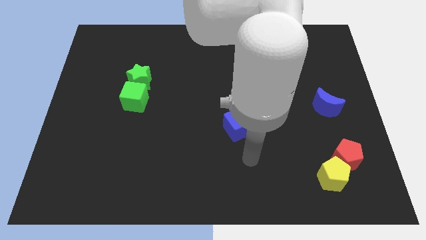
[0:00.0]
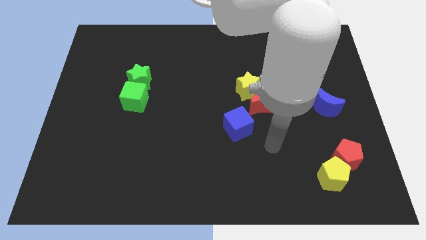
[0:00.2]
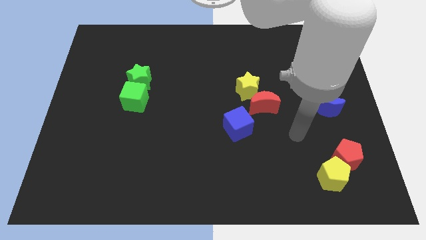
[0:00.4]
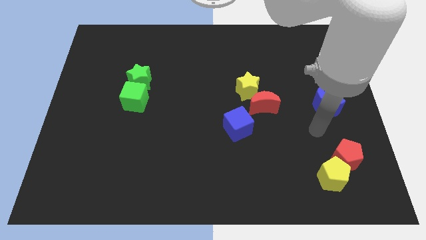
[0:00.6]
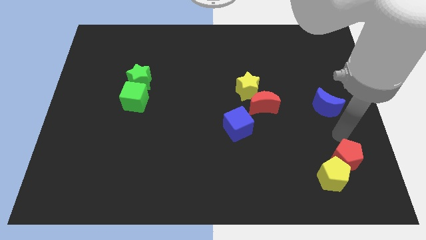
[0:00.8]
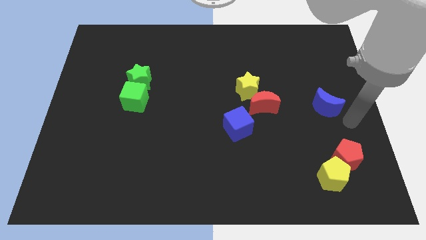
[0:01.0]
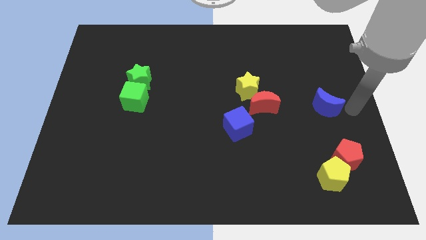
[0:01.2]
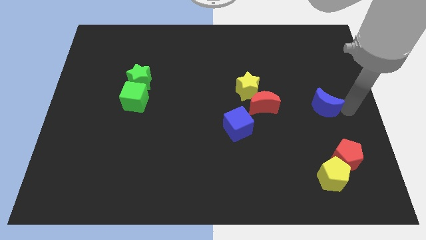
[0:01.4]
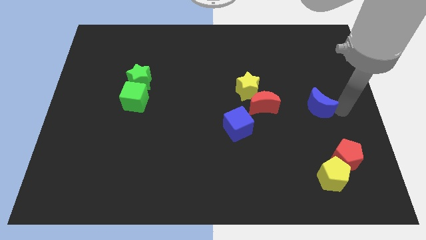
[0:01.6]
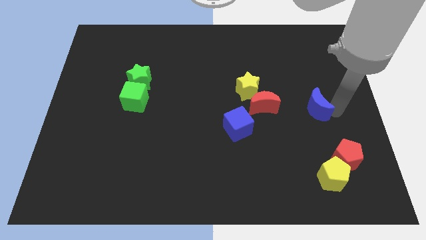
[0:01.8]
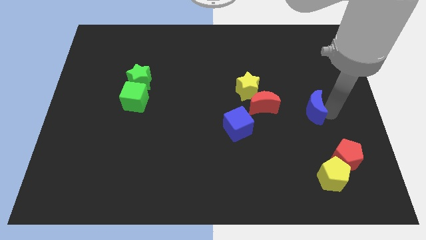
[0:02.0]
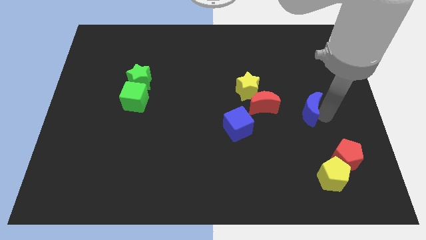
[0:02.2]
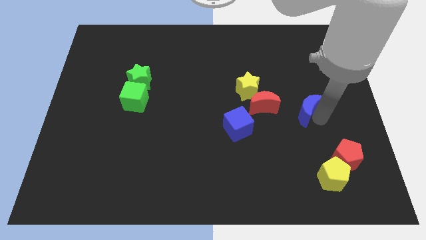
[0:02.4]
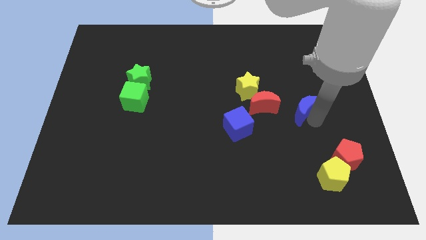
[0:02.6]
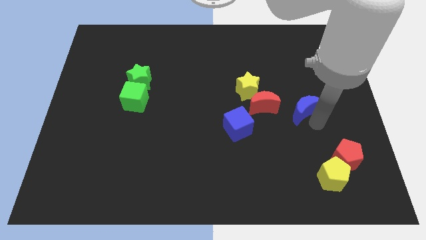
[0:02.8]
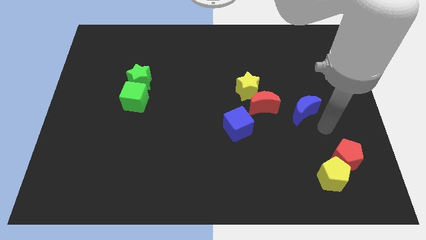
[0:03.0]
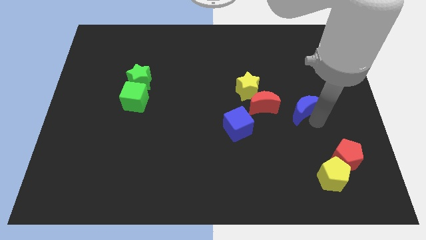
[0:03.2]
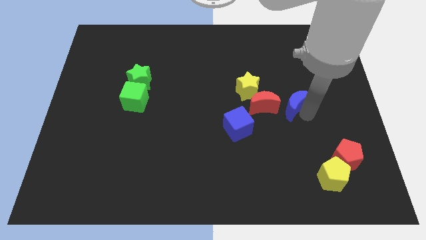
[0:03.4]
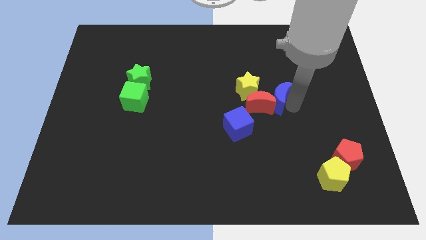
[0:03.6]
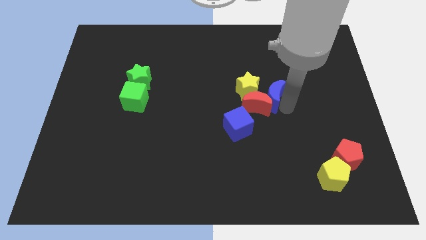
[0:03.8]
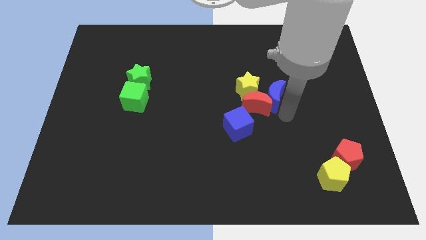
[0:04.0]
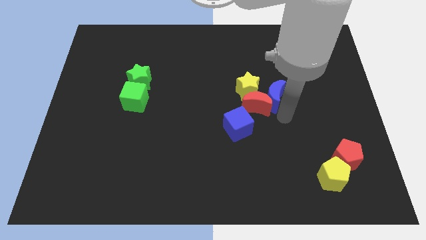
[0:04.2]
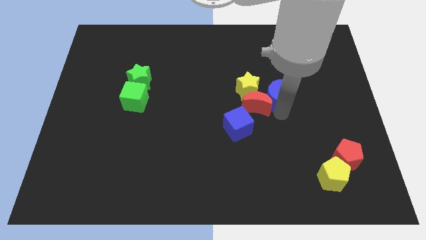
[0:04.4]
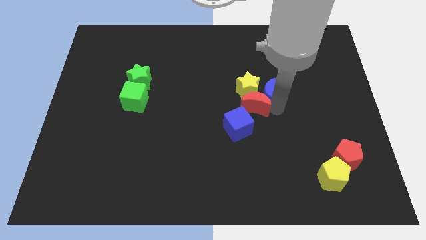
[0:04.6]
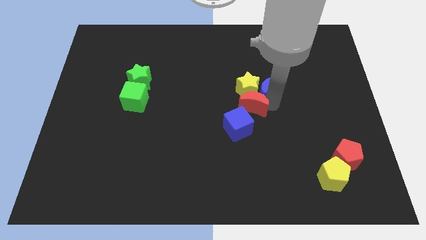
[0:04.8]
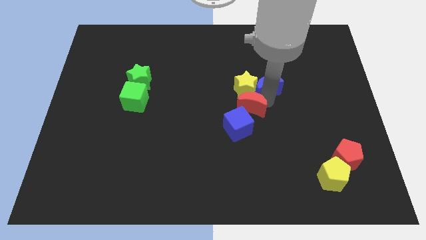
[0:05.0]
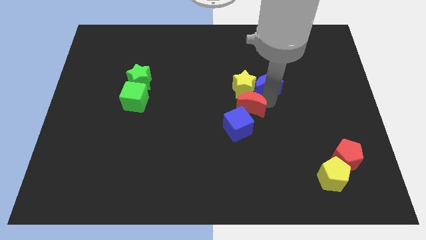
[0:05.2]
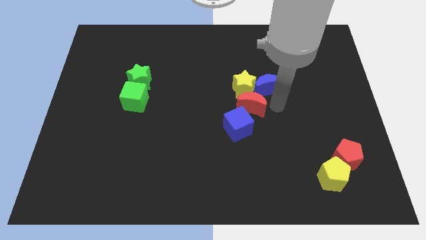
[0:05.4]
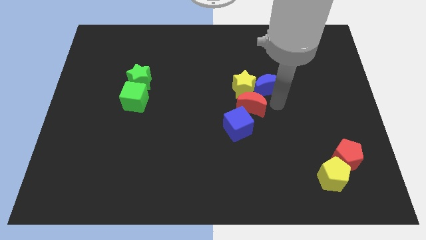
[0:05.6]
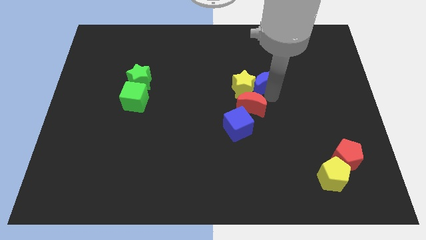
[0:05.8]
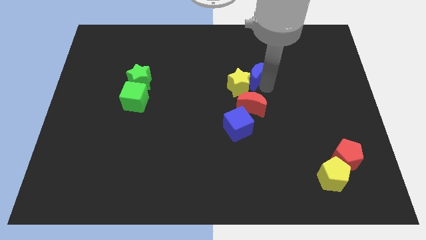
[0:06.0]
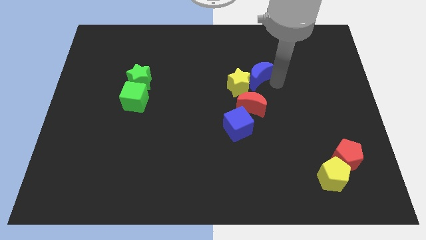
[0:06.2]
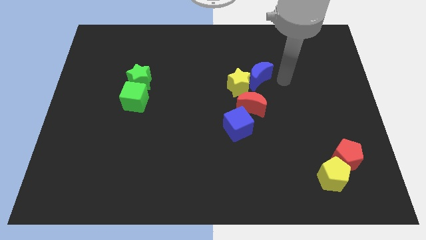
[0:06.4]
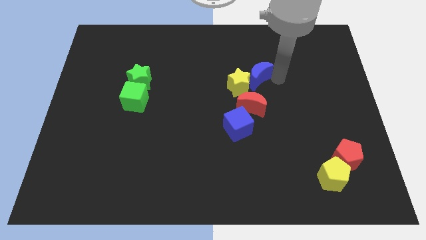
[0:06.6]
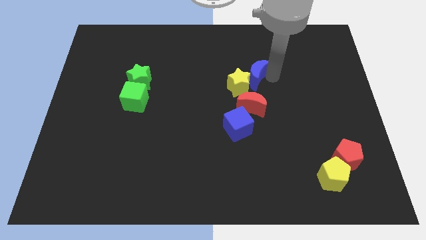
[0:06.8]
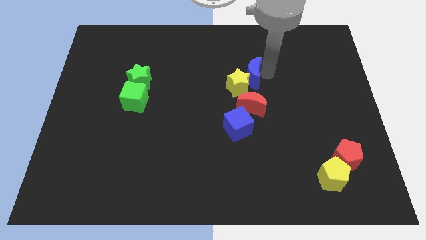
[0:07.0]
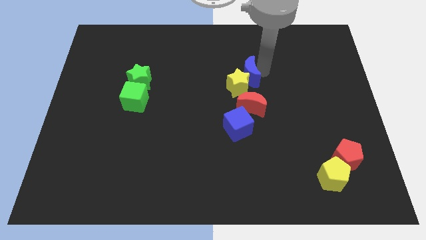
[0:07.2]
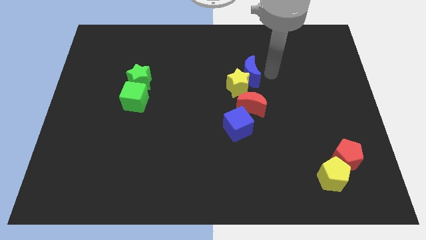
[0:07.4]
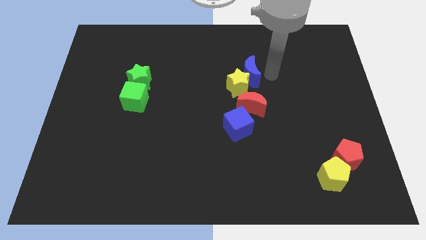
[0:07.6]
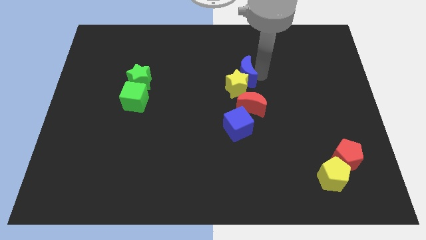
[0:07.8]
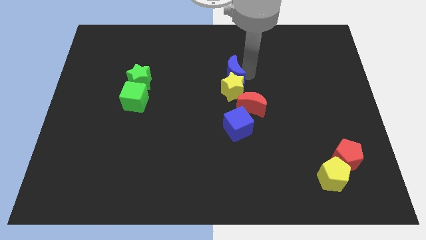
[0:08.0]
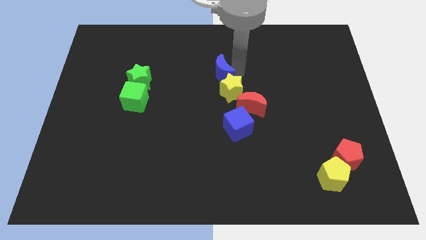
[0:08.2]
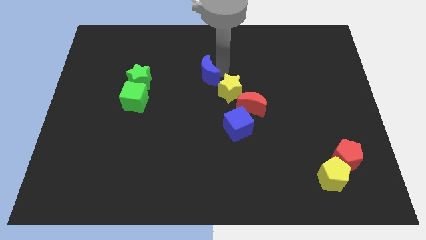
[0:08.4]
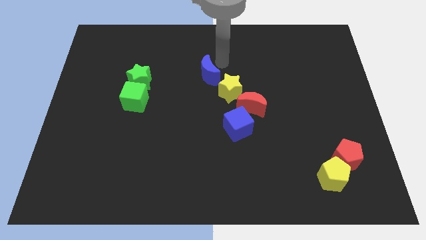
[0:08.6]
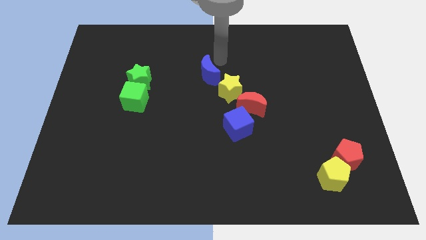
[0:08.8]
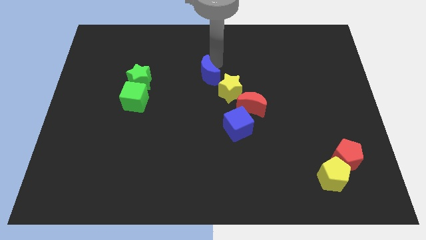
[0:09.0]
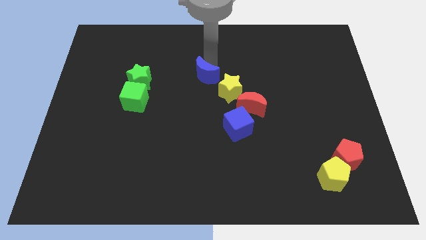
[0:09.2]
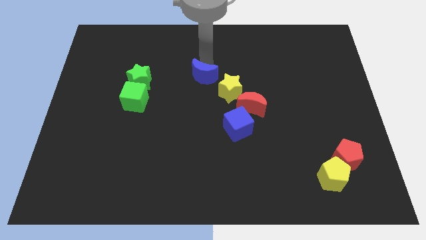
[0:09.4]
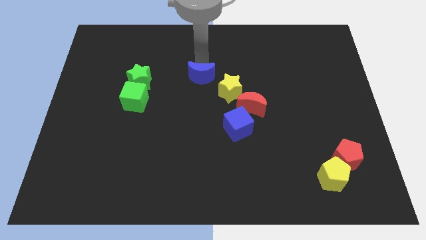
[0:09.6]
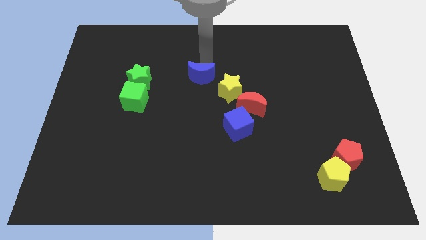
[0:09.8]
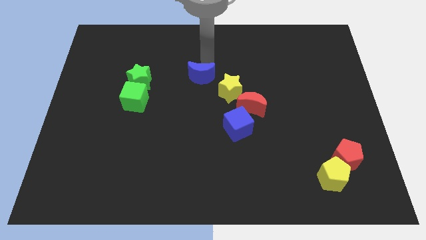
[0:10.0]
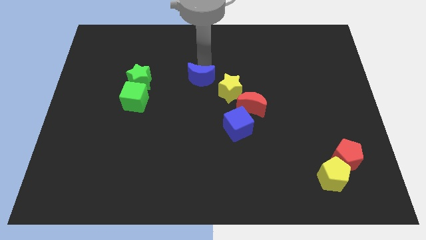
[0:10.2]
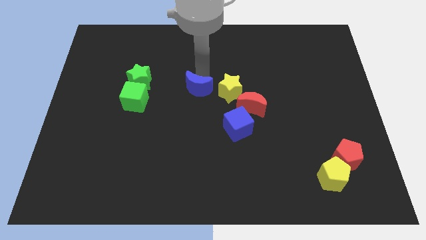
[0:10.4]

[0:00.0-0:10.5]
move the blue moon right of the green cube

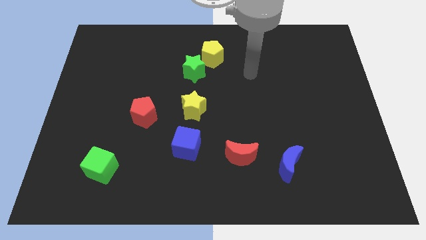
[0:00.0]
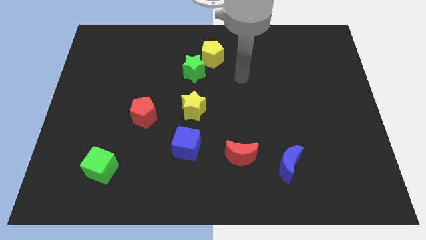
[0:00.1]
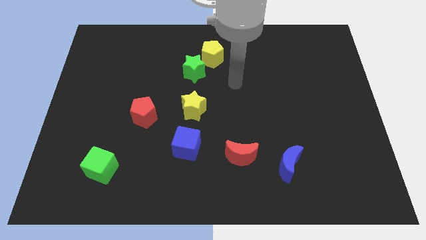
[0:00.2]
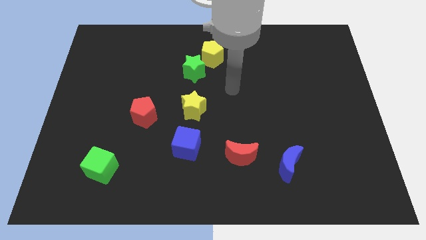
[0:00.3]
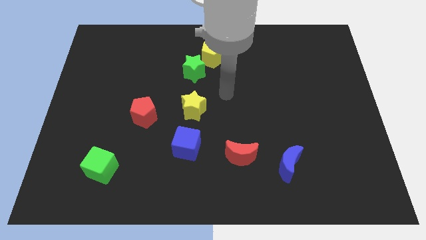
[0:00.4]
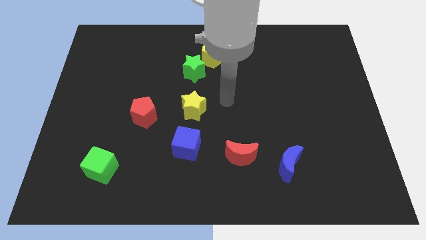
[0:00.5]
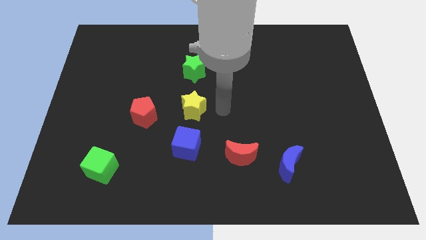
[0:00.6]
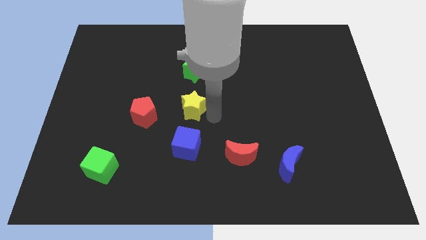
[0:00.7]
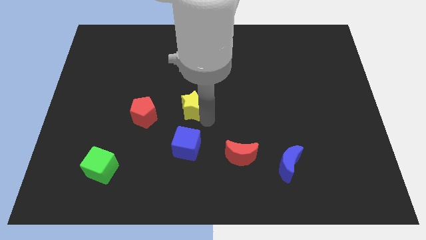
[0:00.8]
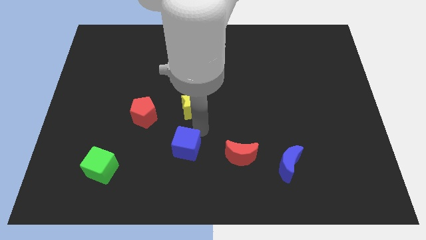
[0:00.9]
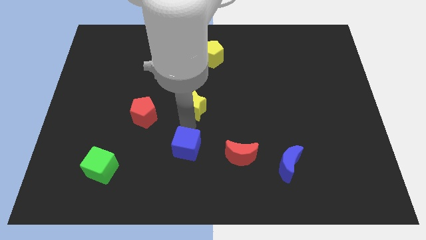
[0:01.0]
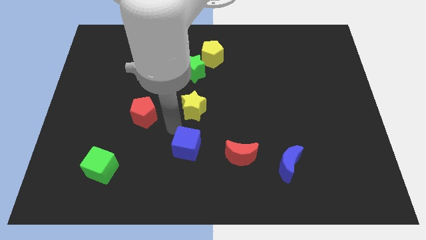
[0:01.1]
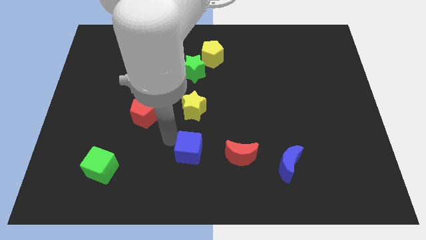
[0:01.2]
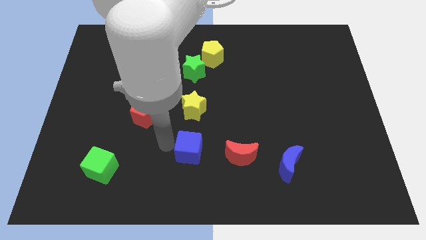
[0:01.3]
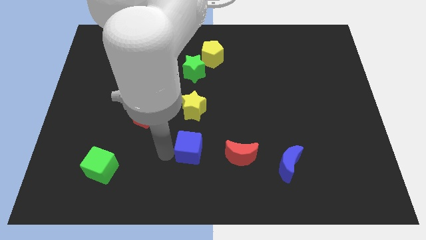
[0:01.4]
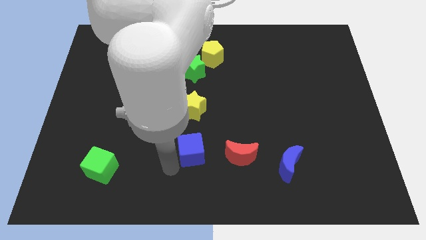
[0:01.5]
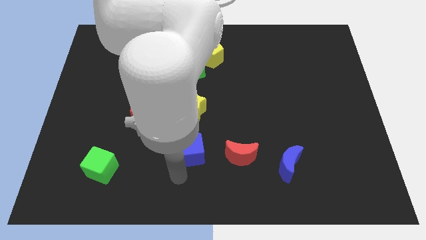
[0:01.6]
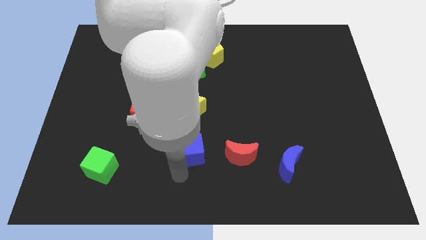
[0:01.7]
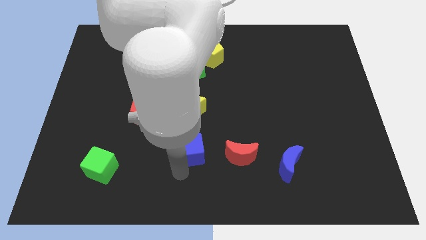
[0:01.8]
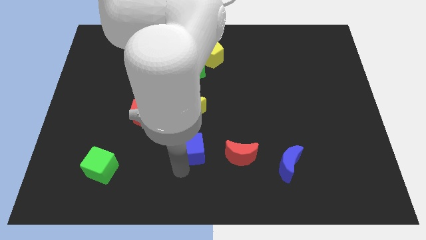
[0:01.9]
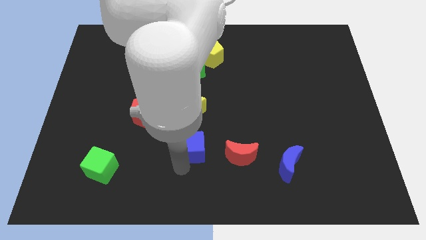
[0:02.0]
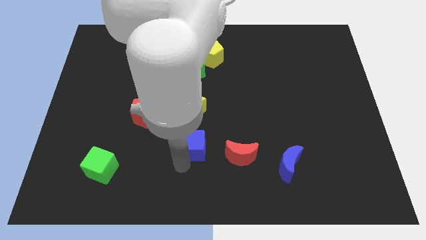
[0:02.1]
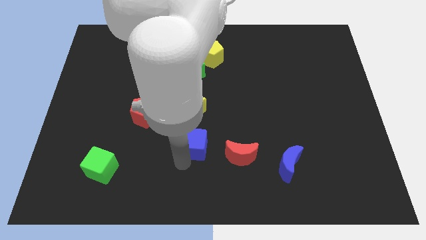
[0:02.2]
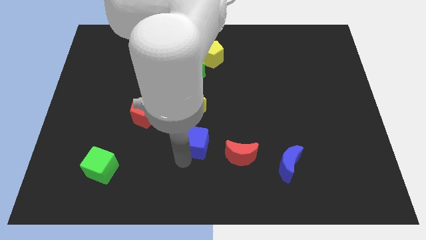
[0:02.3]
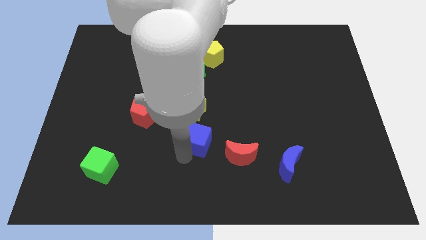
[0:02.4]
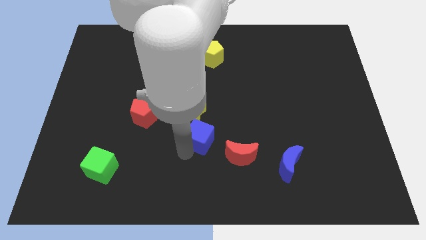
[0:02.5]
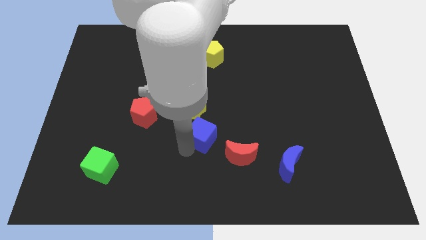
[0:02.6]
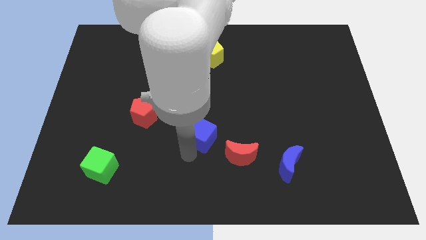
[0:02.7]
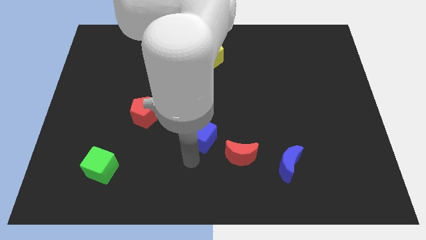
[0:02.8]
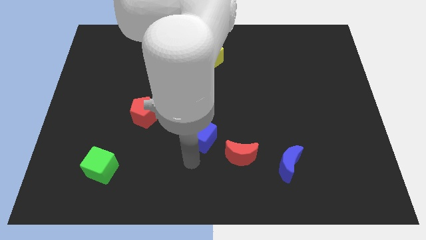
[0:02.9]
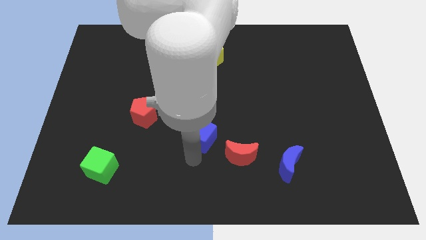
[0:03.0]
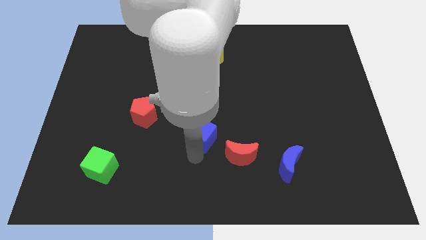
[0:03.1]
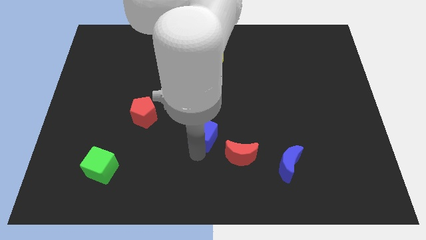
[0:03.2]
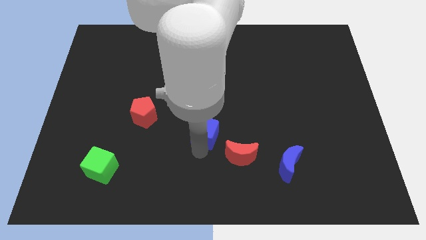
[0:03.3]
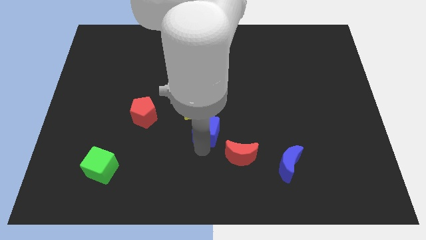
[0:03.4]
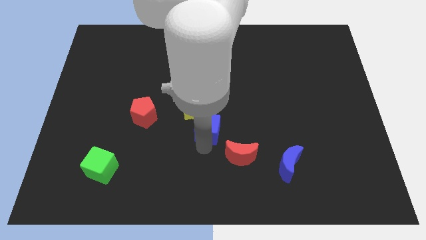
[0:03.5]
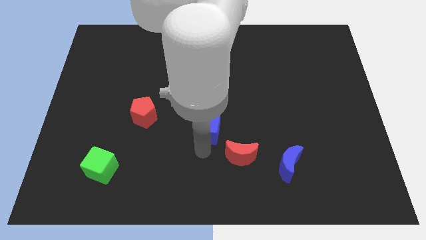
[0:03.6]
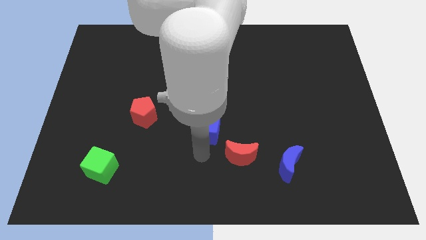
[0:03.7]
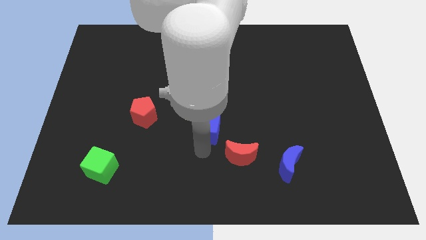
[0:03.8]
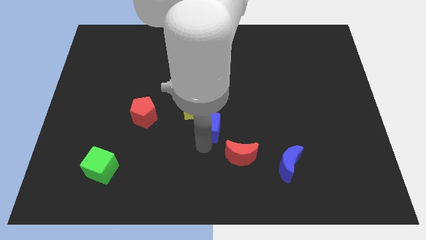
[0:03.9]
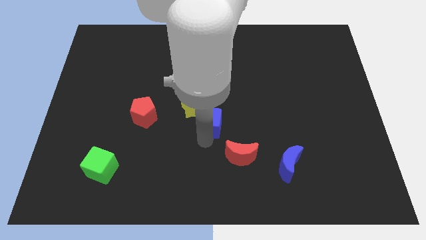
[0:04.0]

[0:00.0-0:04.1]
move the blue cube to the right side of the red pentagon
